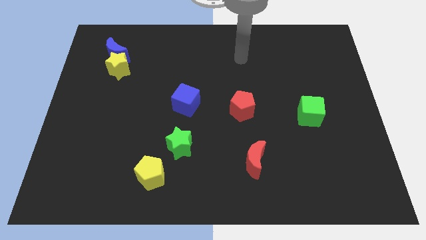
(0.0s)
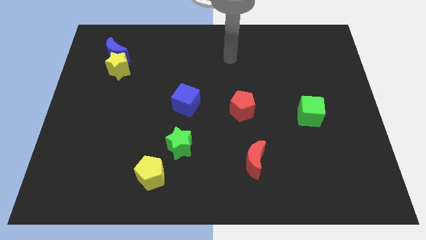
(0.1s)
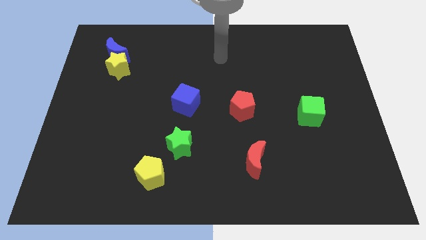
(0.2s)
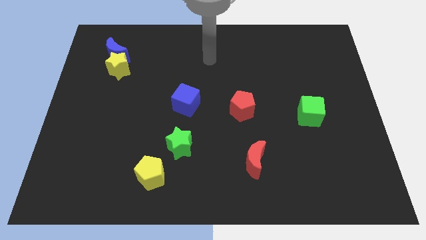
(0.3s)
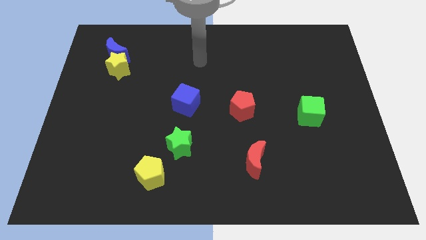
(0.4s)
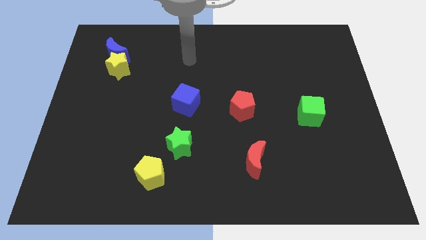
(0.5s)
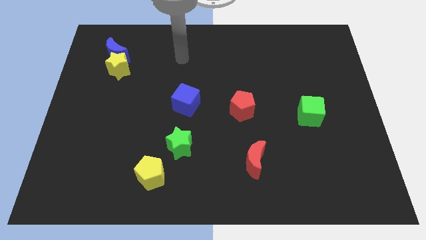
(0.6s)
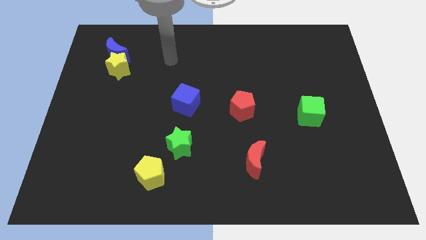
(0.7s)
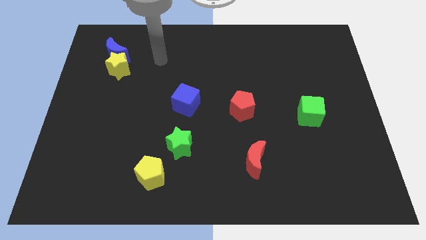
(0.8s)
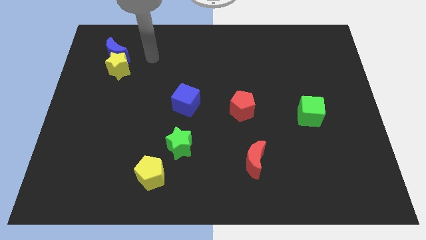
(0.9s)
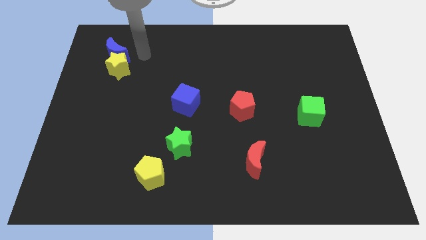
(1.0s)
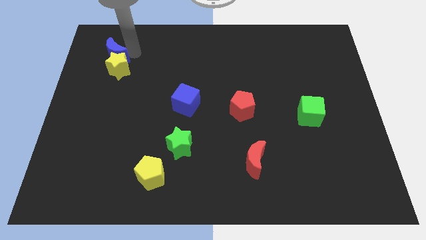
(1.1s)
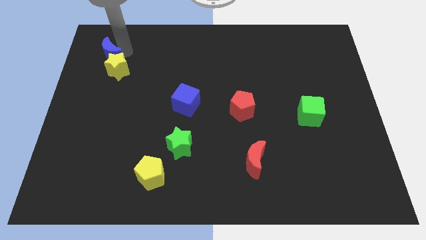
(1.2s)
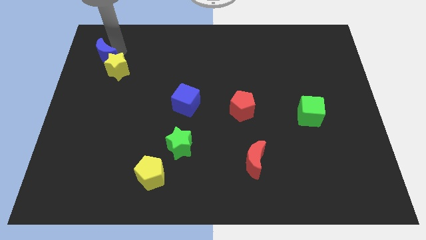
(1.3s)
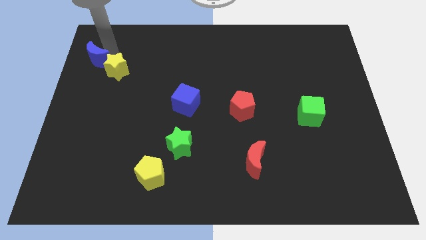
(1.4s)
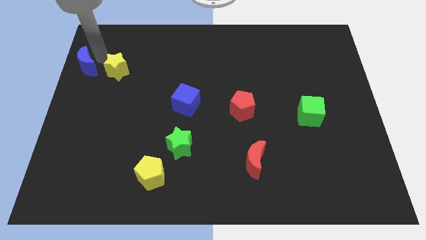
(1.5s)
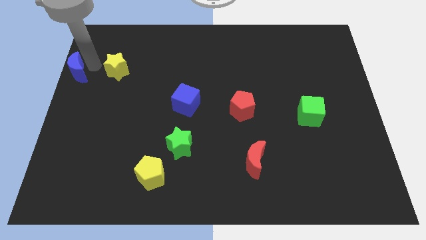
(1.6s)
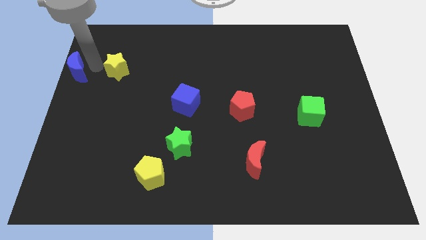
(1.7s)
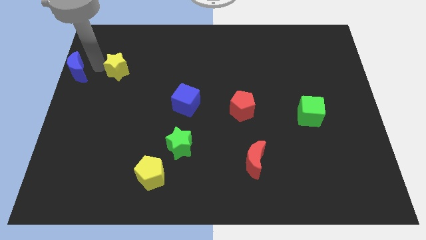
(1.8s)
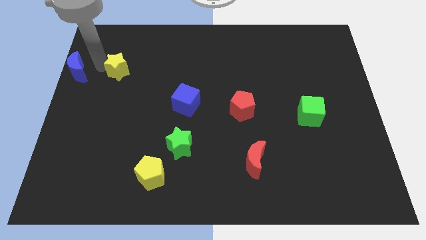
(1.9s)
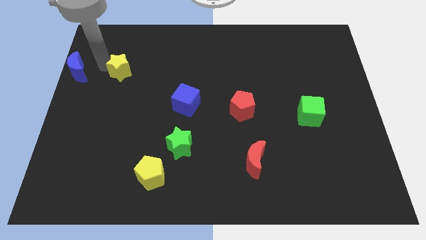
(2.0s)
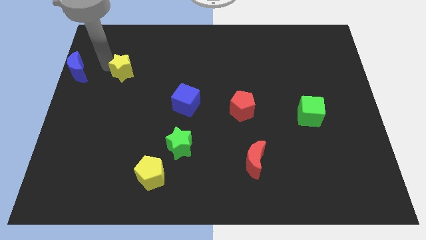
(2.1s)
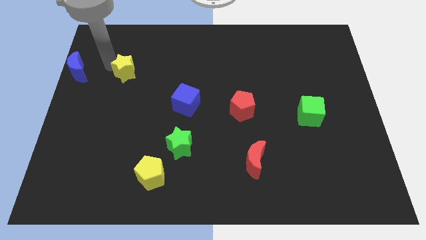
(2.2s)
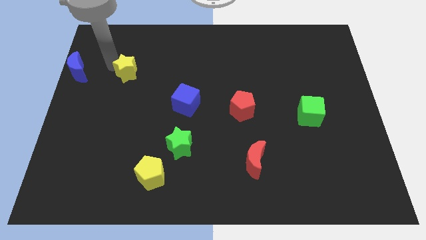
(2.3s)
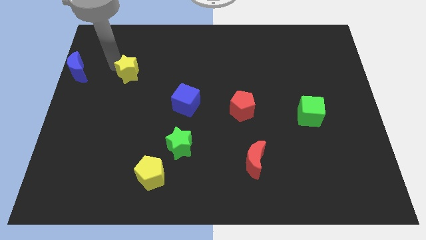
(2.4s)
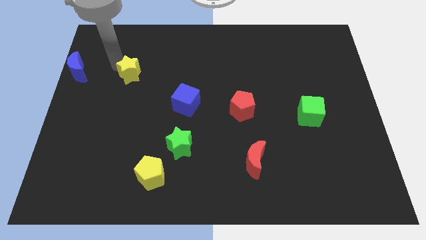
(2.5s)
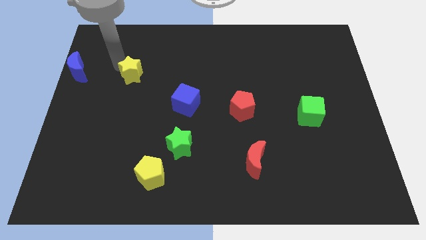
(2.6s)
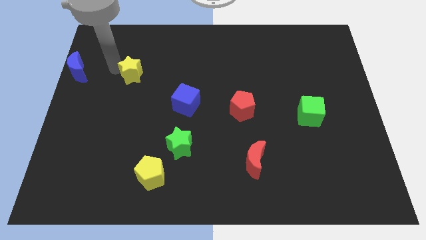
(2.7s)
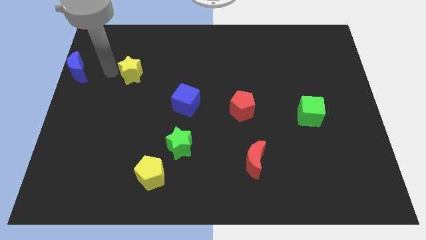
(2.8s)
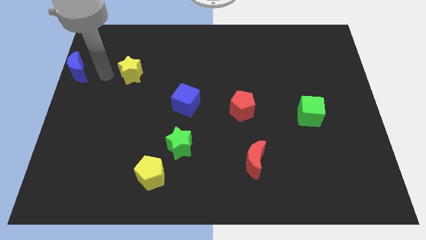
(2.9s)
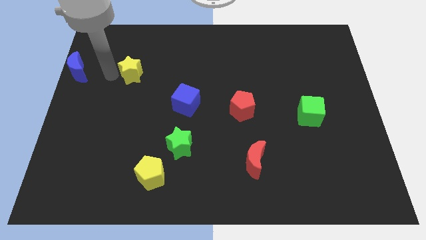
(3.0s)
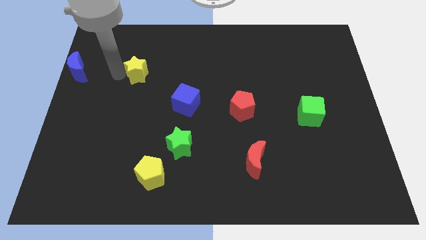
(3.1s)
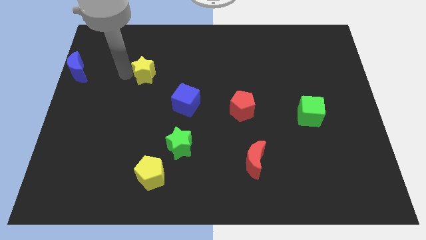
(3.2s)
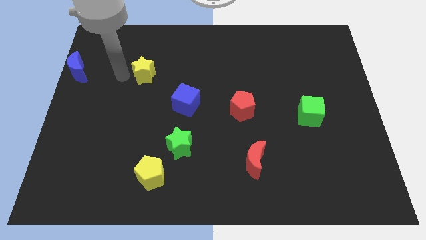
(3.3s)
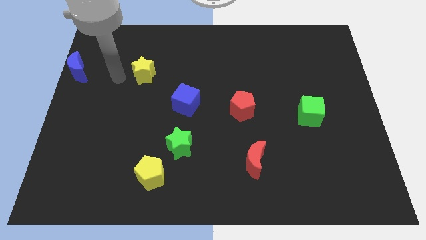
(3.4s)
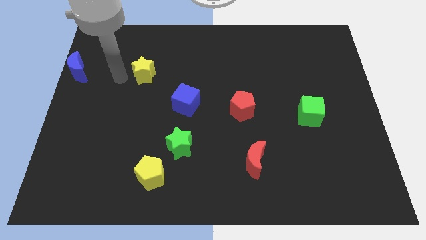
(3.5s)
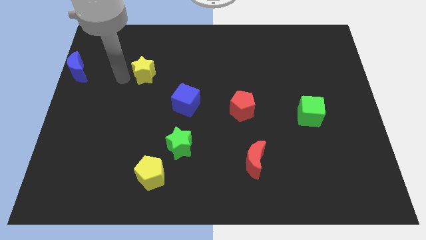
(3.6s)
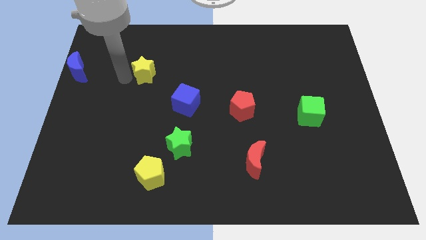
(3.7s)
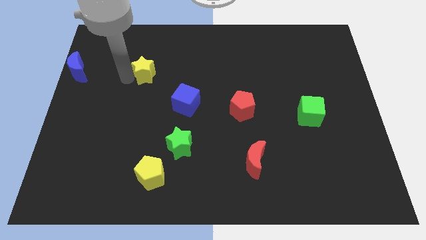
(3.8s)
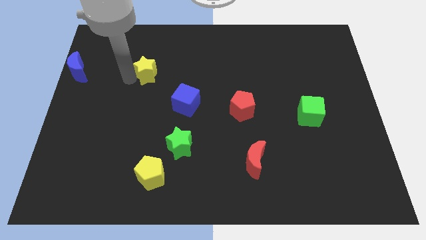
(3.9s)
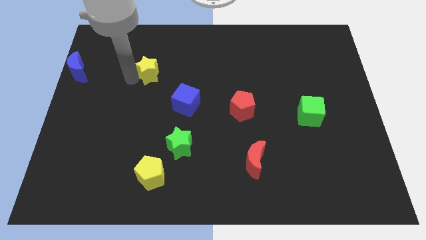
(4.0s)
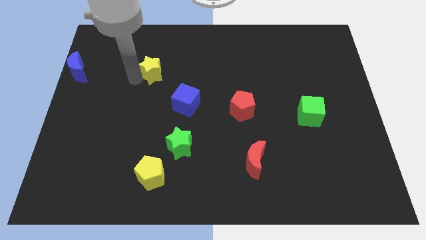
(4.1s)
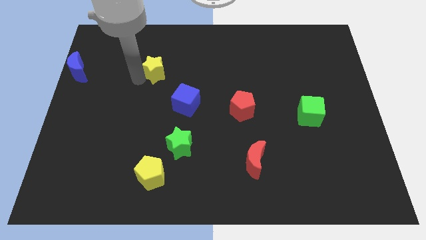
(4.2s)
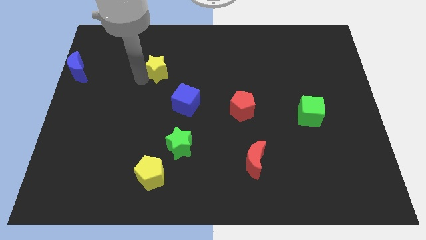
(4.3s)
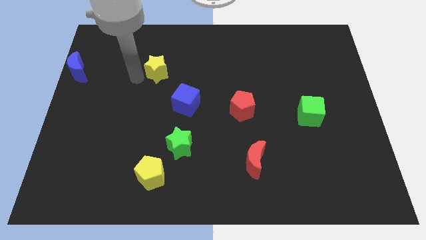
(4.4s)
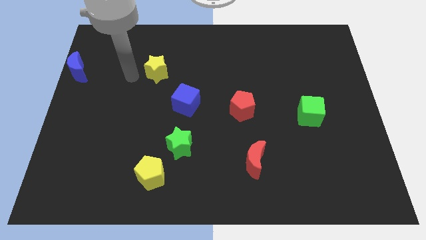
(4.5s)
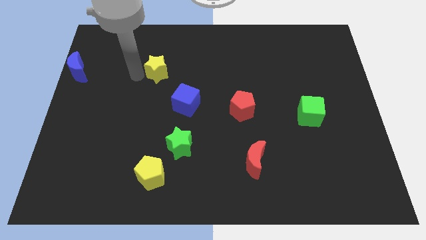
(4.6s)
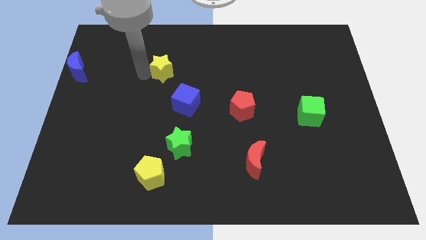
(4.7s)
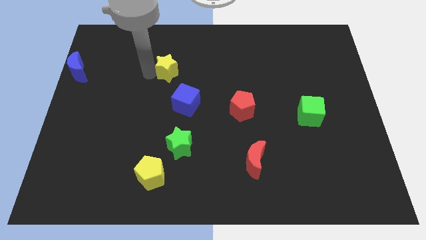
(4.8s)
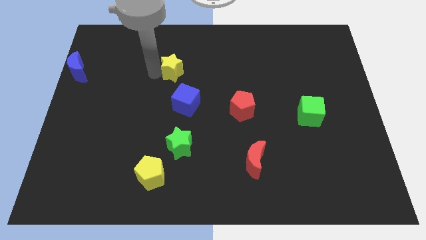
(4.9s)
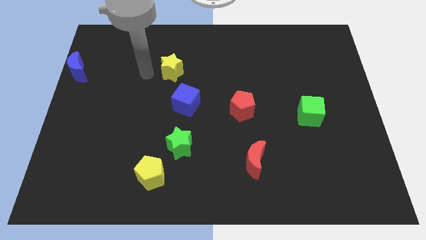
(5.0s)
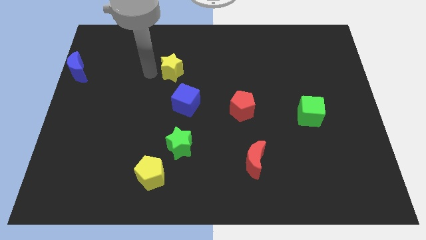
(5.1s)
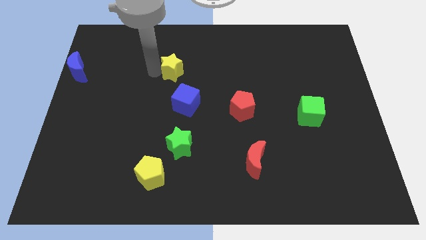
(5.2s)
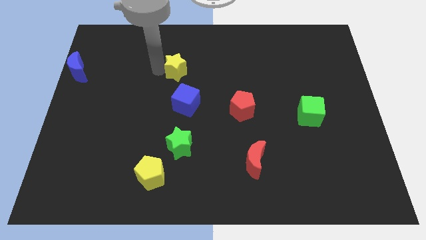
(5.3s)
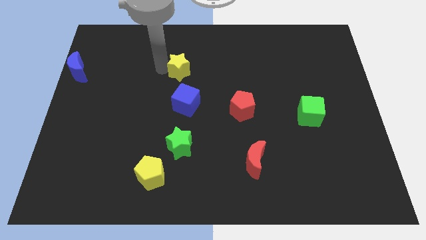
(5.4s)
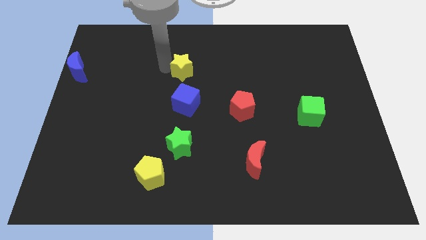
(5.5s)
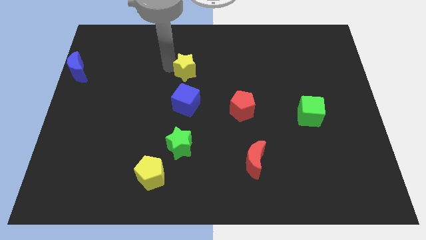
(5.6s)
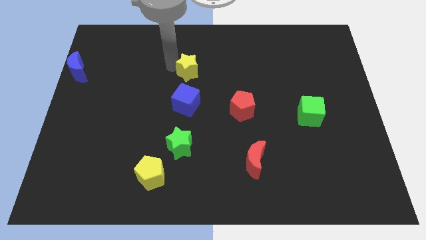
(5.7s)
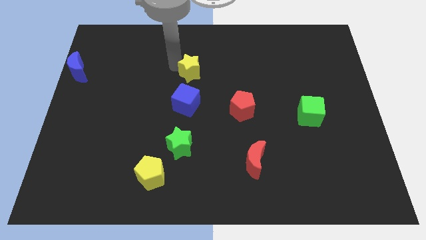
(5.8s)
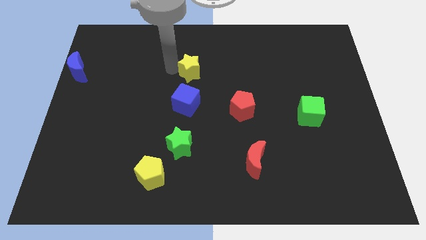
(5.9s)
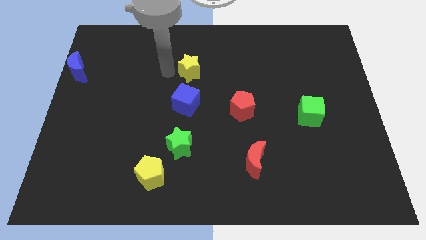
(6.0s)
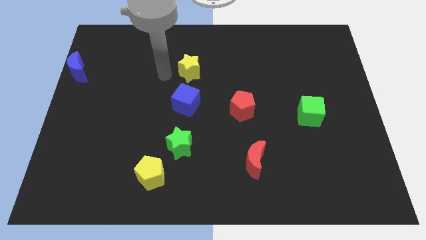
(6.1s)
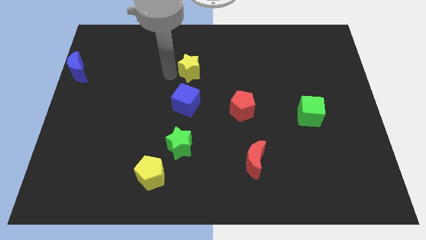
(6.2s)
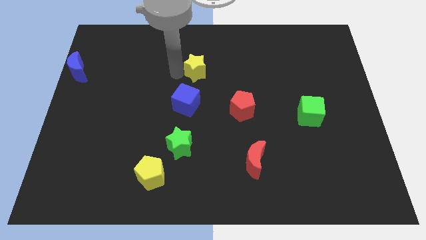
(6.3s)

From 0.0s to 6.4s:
move the yellow star to the right

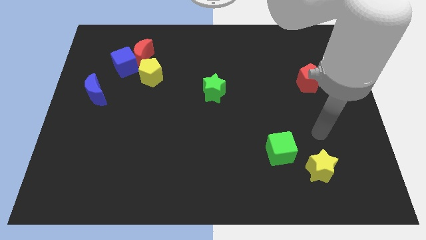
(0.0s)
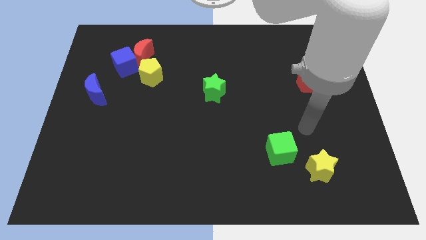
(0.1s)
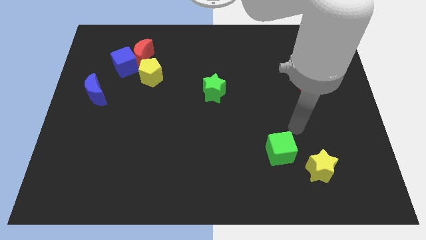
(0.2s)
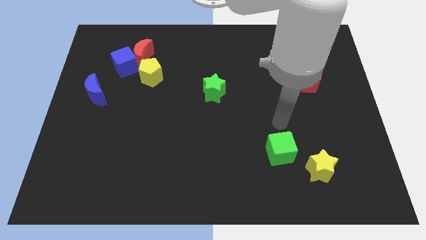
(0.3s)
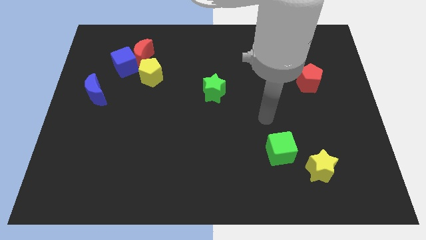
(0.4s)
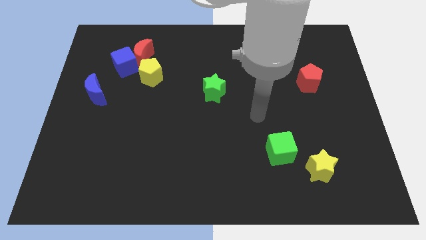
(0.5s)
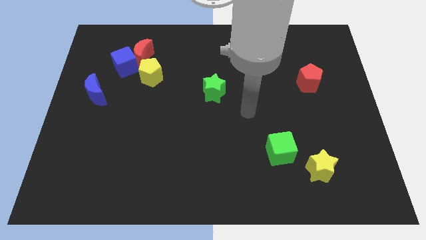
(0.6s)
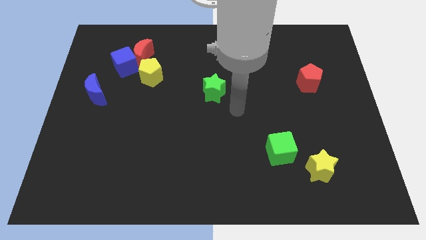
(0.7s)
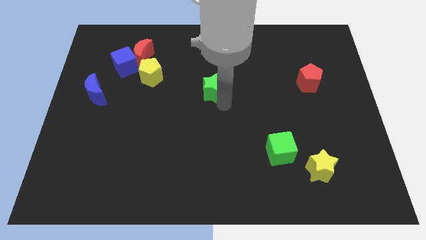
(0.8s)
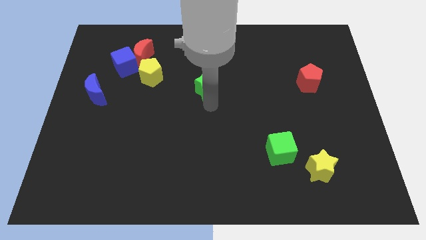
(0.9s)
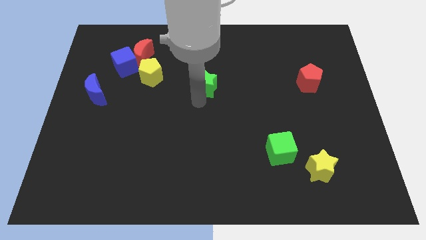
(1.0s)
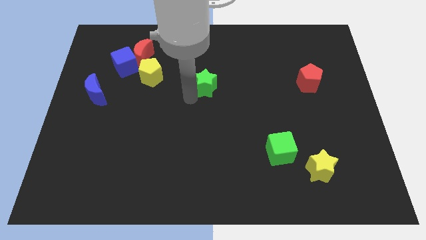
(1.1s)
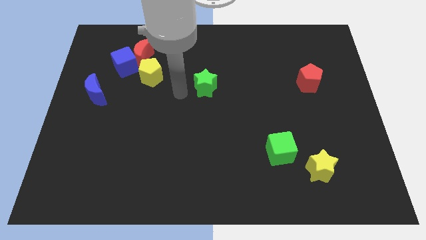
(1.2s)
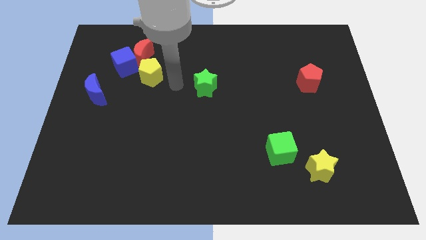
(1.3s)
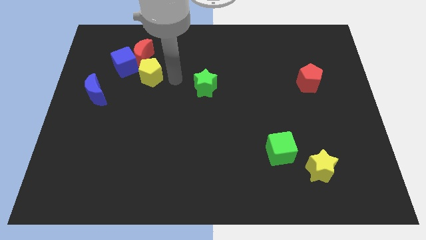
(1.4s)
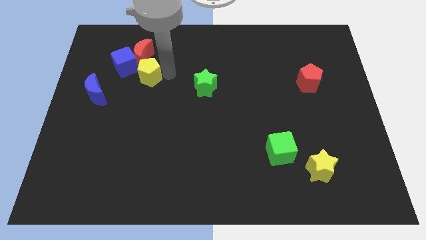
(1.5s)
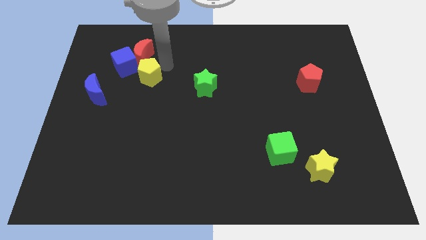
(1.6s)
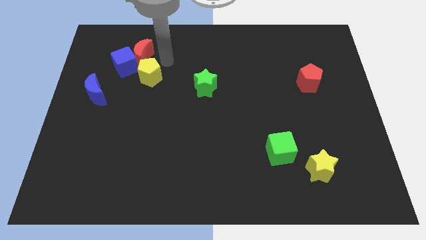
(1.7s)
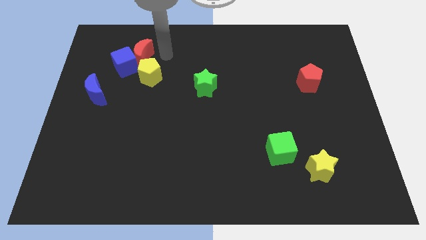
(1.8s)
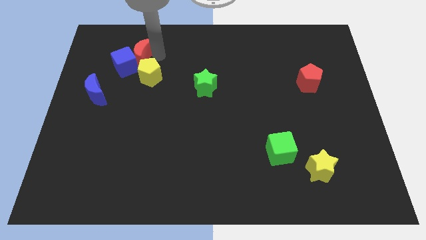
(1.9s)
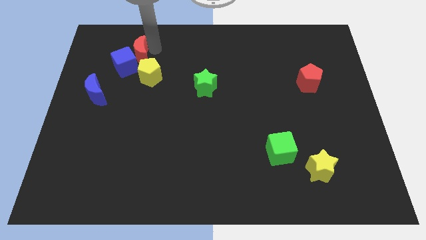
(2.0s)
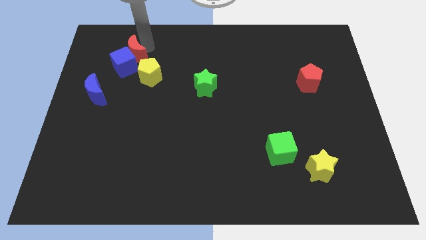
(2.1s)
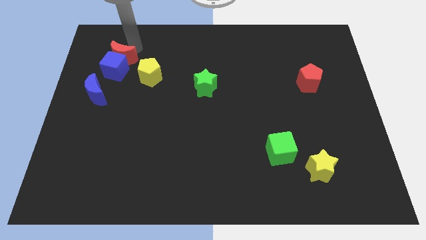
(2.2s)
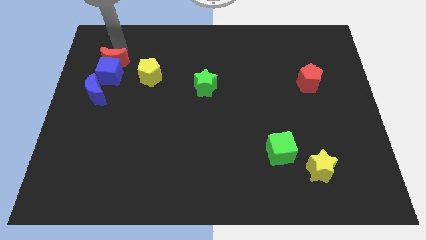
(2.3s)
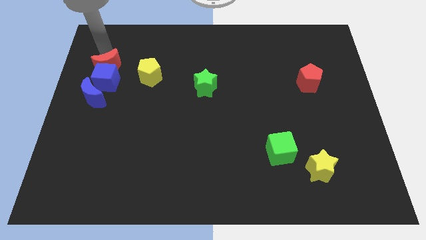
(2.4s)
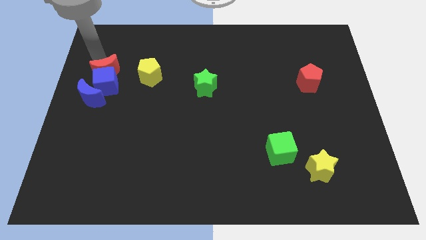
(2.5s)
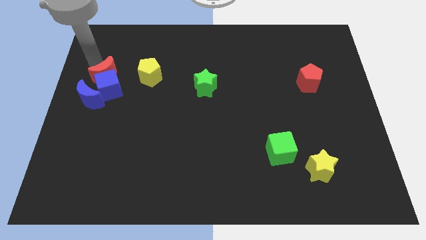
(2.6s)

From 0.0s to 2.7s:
push the blue cube downwards somewhat
